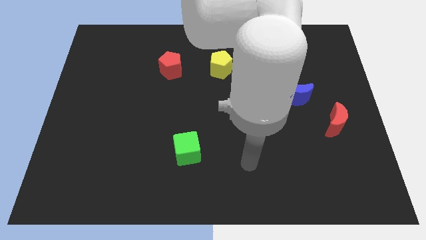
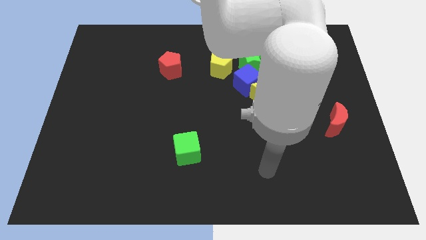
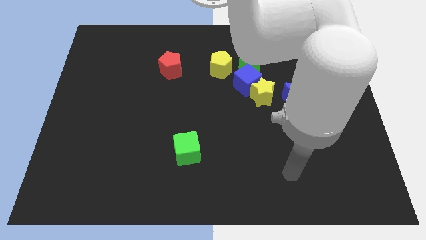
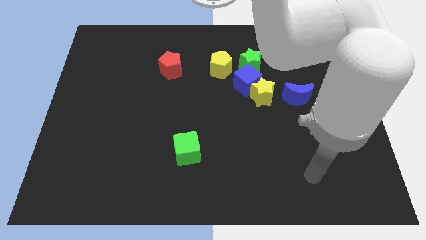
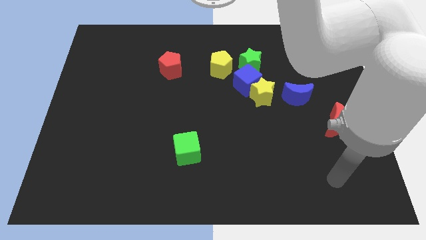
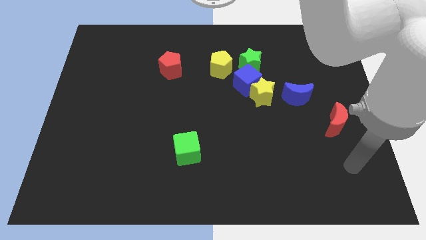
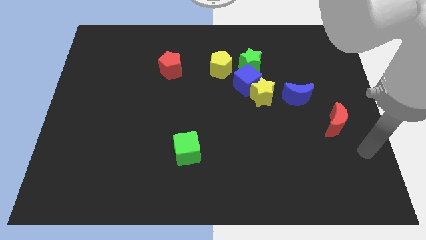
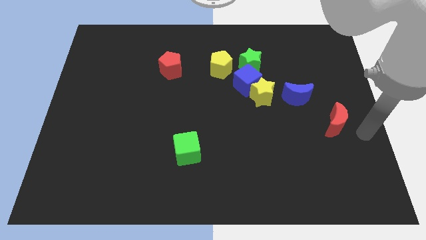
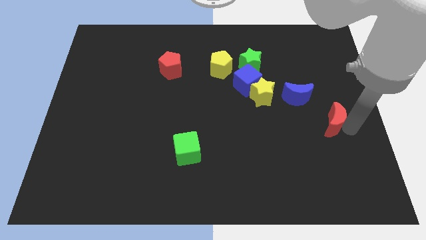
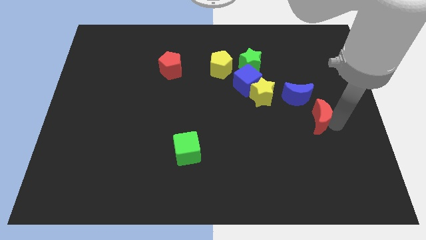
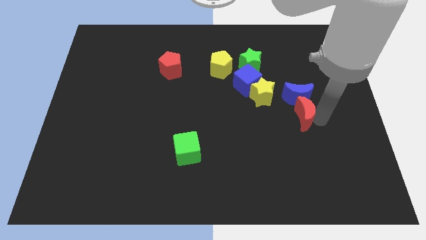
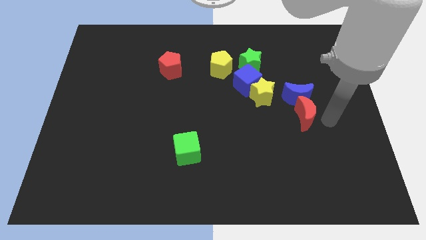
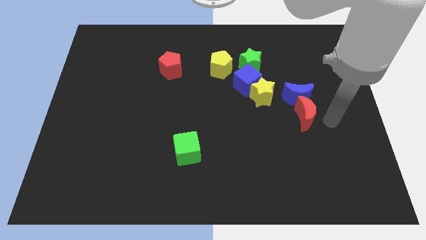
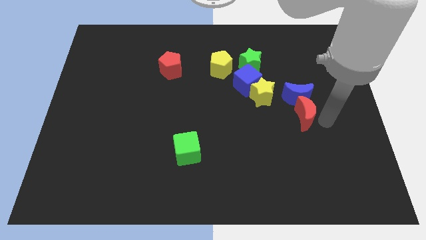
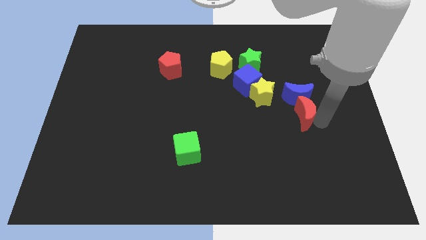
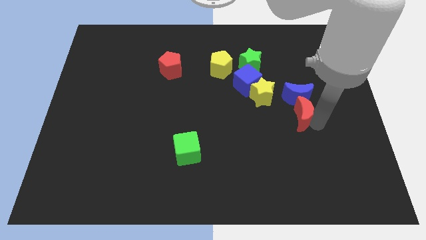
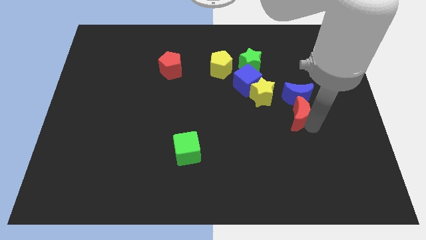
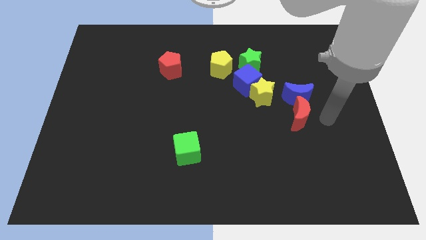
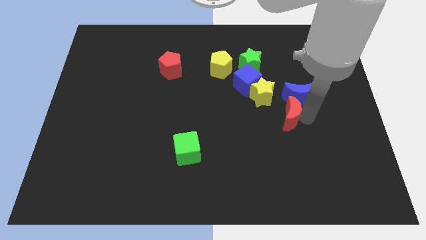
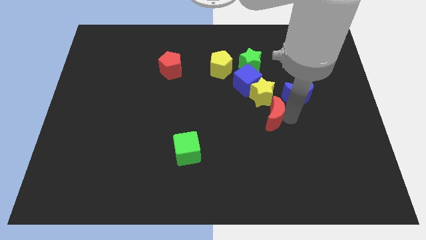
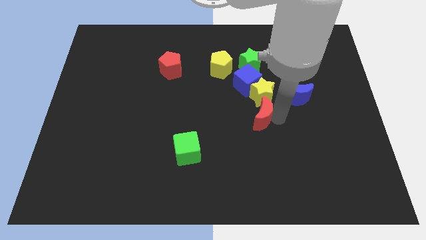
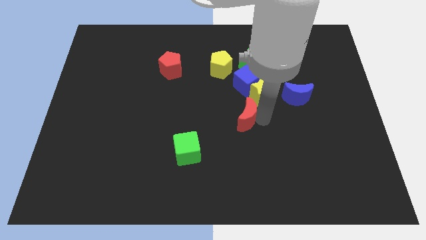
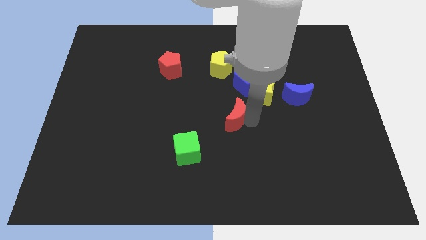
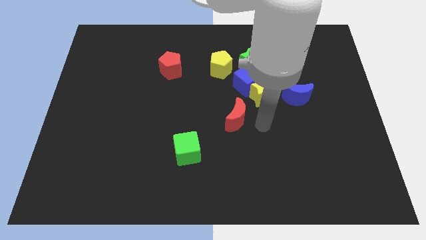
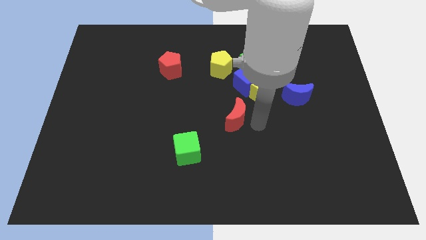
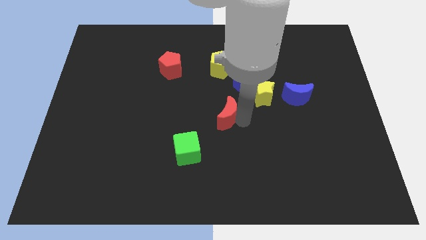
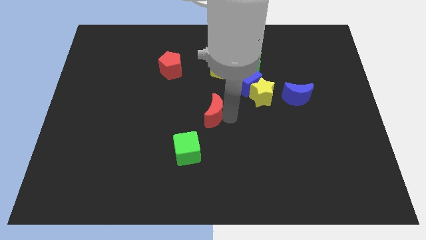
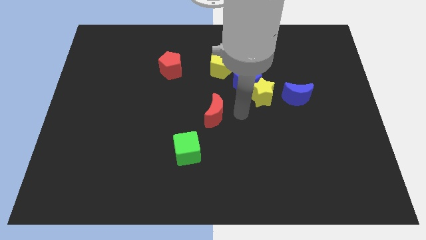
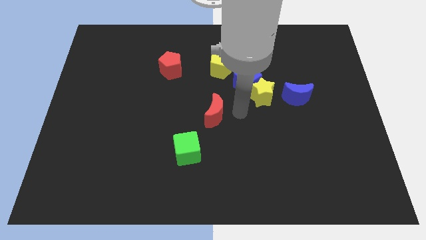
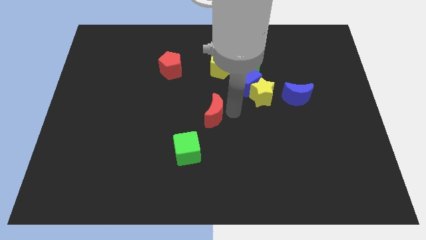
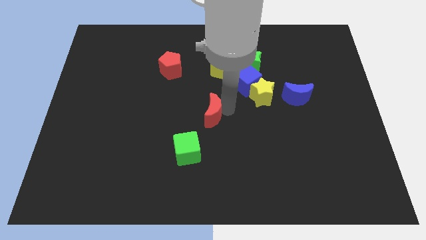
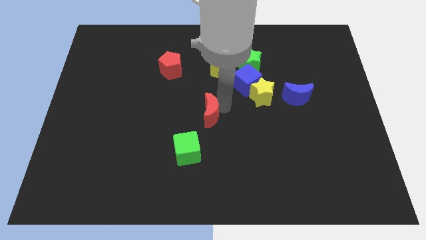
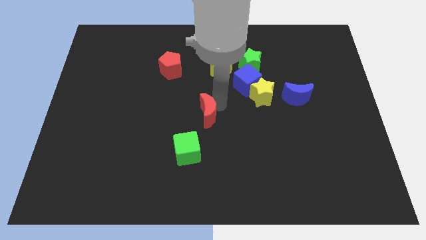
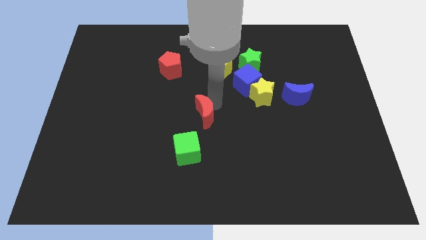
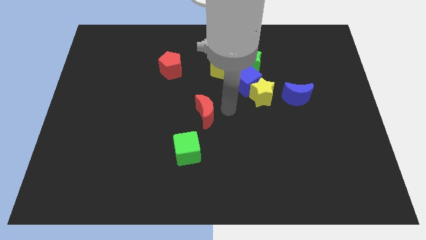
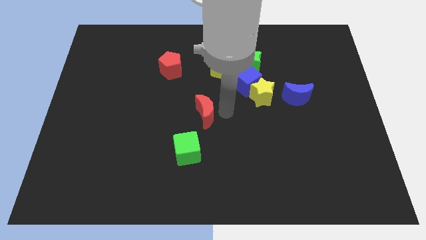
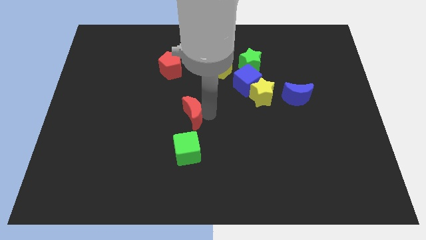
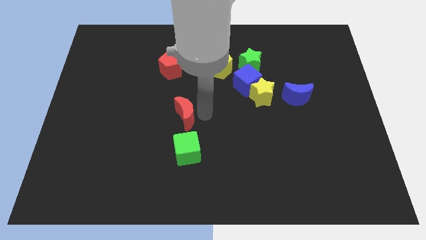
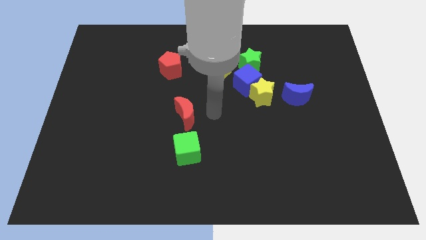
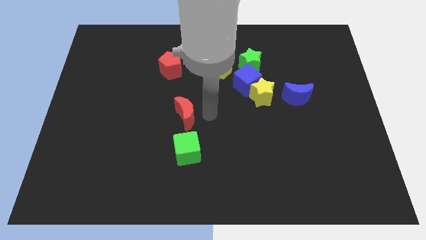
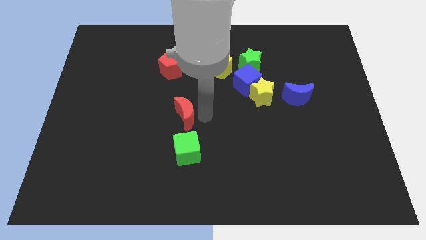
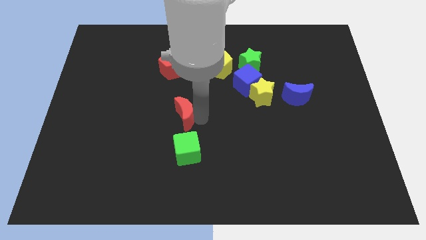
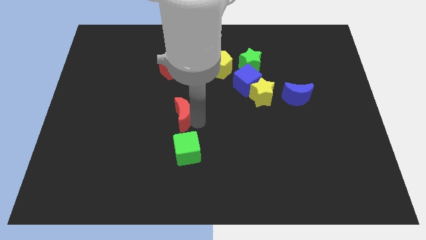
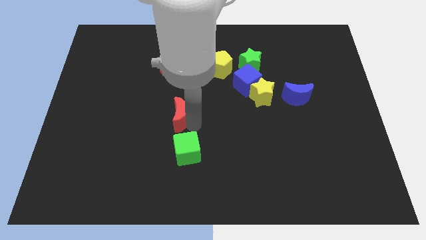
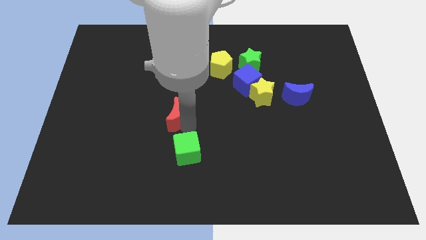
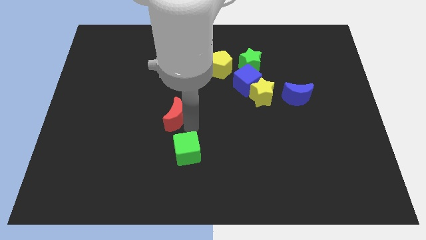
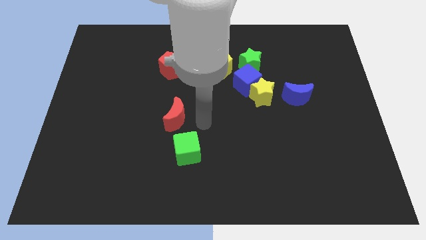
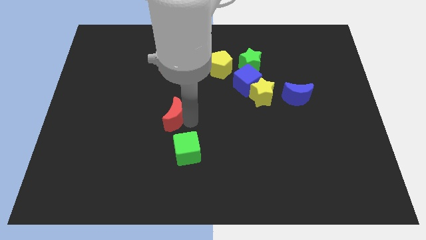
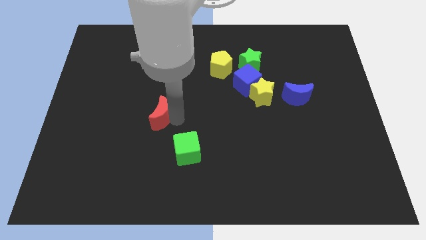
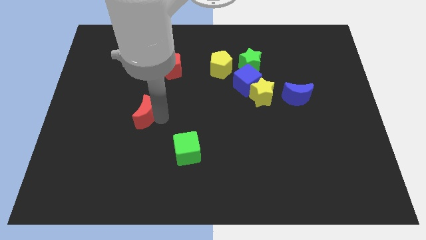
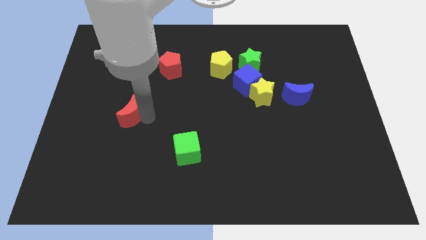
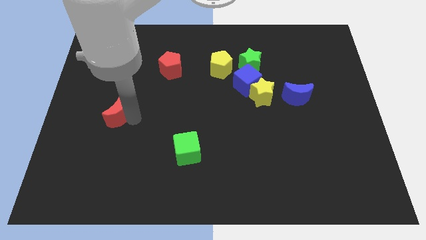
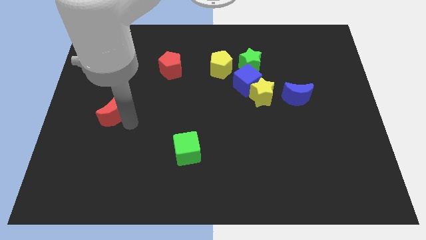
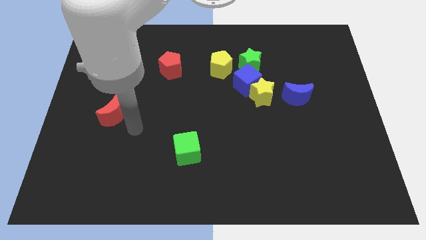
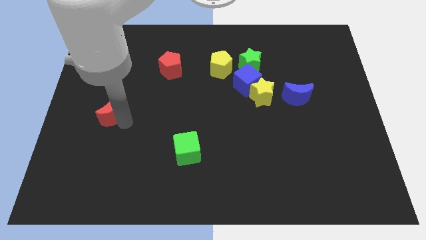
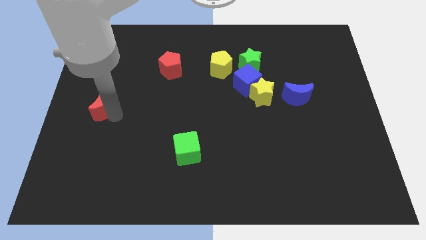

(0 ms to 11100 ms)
move the red moon to the left side

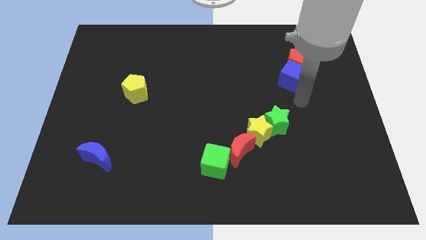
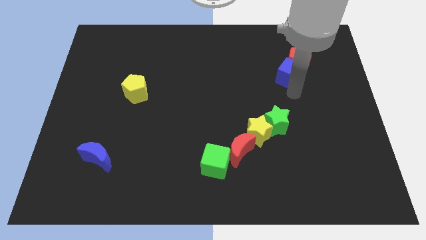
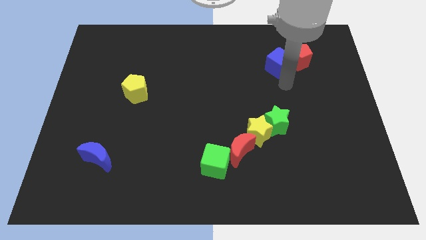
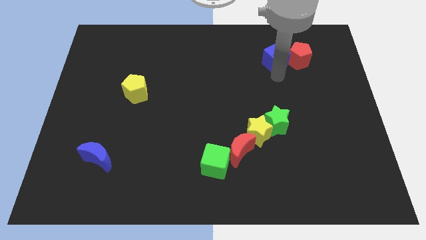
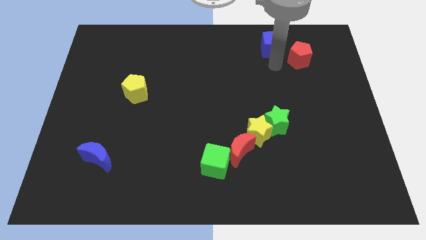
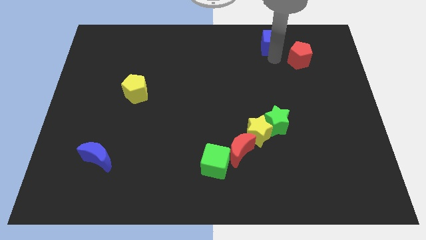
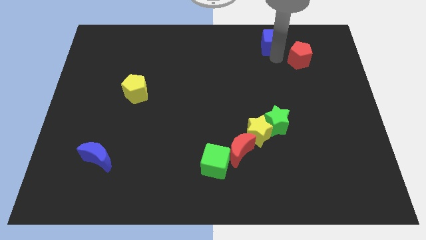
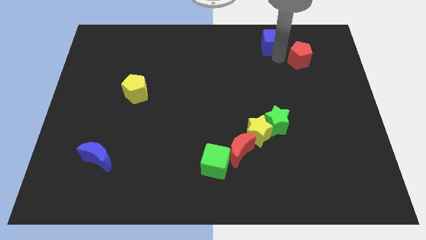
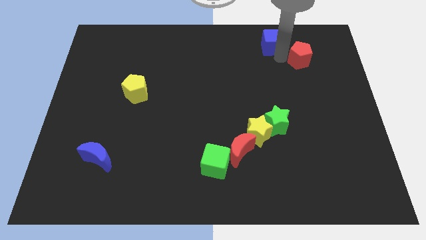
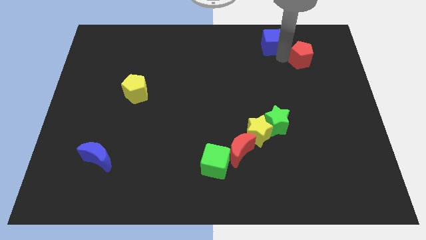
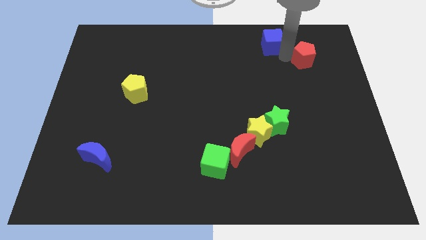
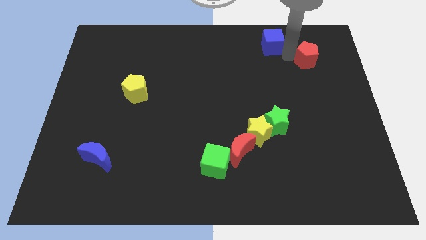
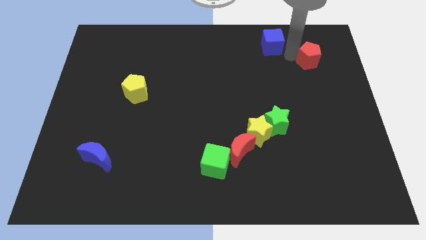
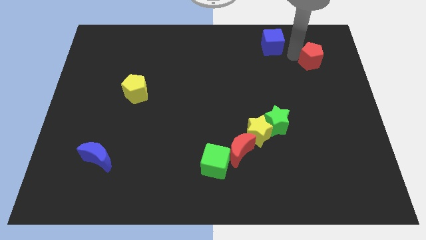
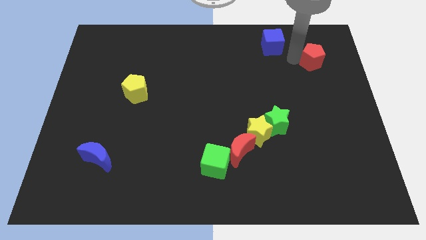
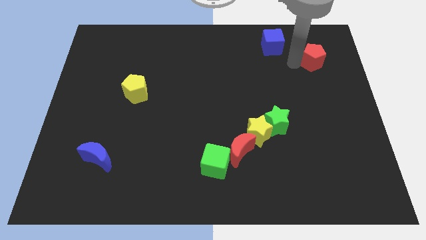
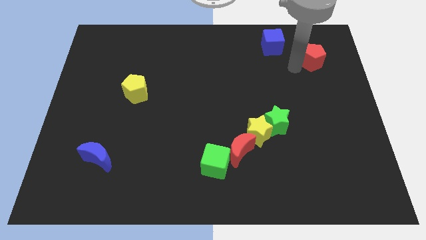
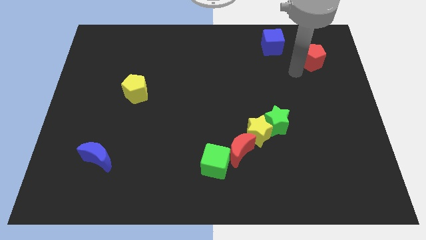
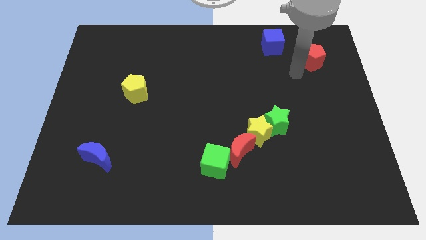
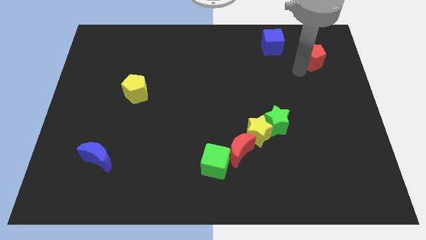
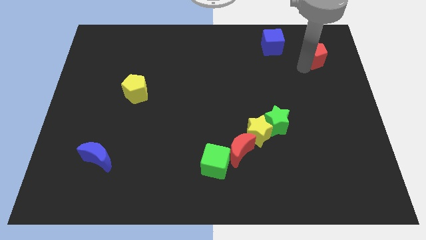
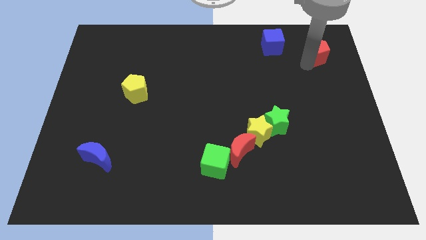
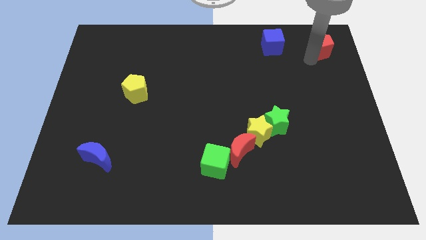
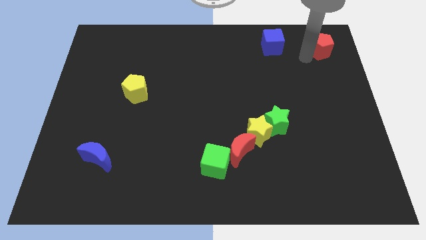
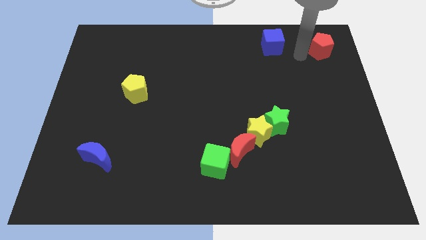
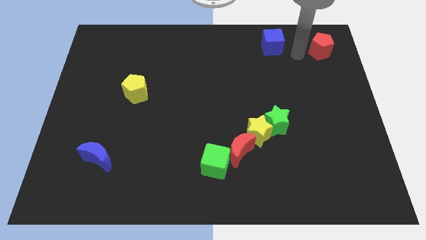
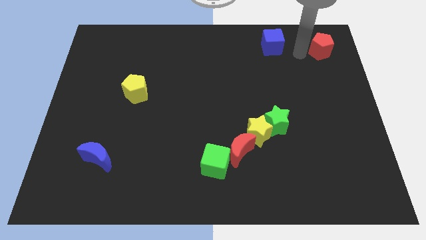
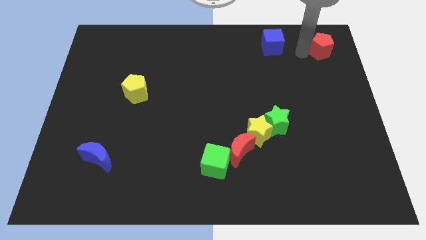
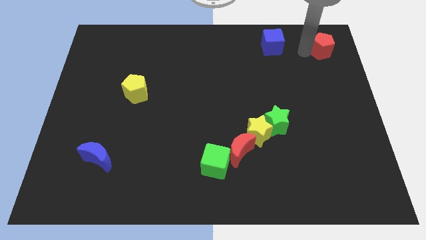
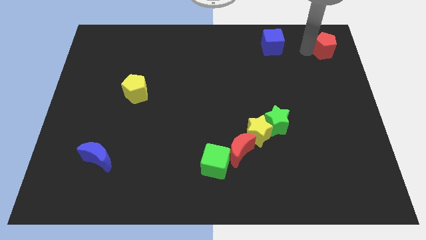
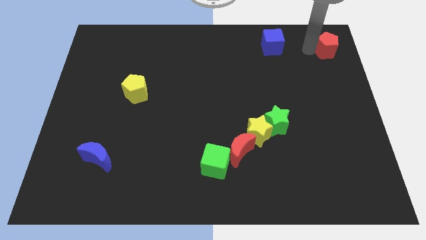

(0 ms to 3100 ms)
slide the red pentagon to the upper right corner
